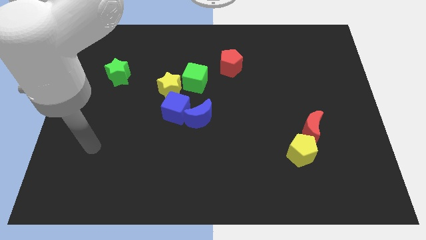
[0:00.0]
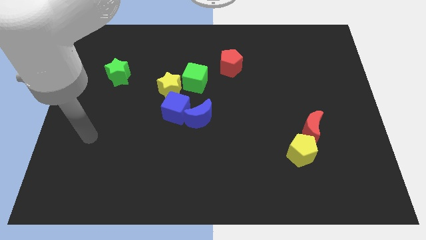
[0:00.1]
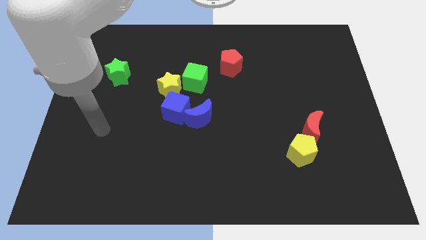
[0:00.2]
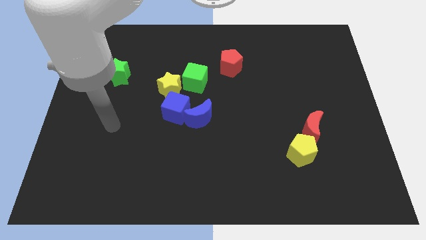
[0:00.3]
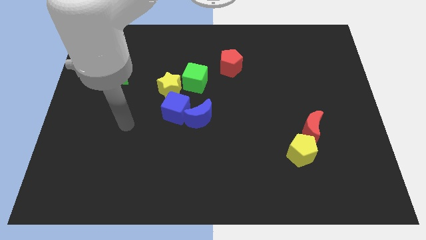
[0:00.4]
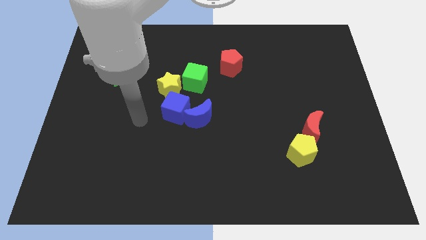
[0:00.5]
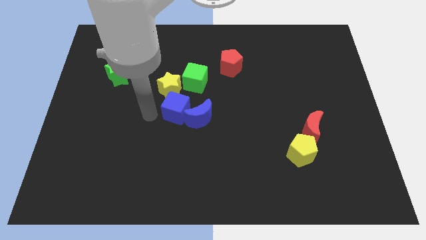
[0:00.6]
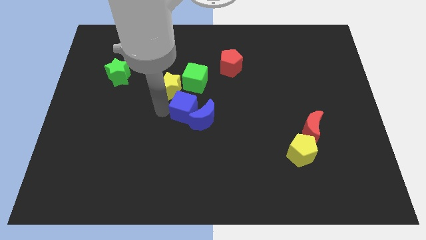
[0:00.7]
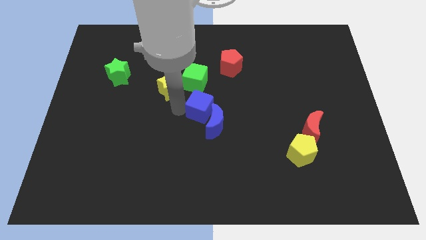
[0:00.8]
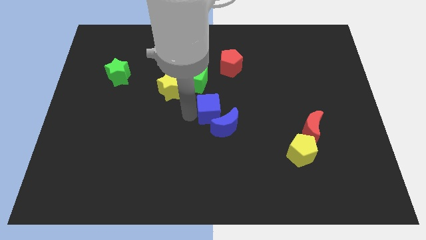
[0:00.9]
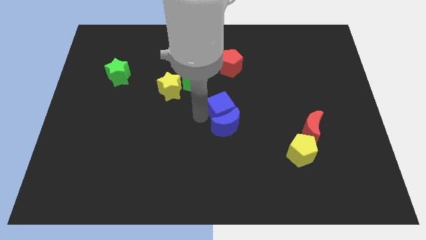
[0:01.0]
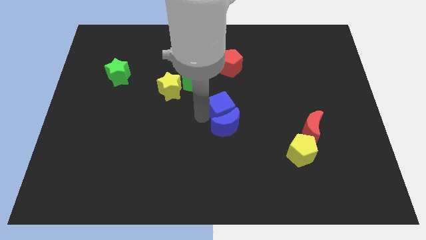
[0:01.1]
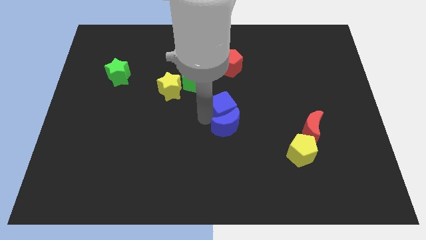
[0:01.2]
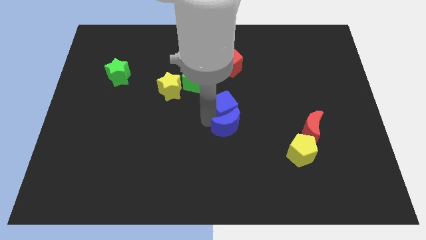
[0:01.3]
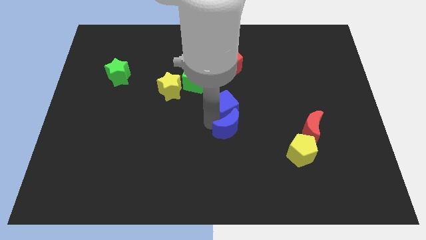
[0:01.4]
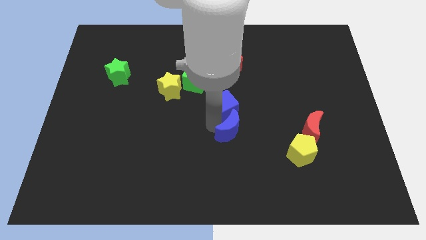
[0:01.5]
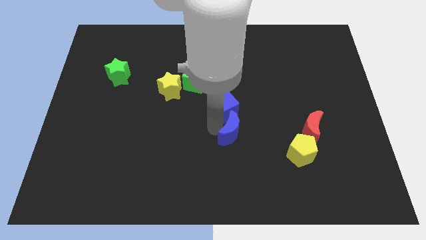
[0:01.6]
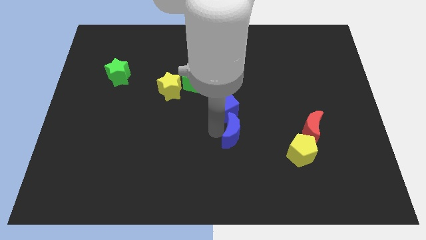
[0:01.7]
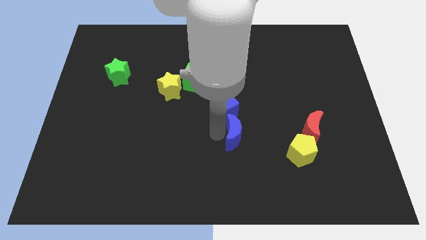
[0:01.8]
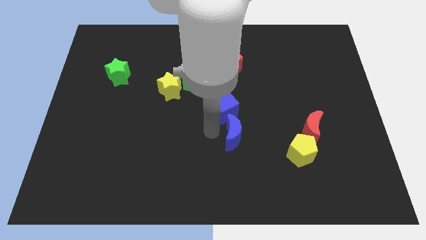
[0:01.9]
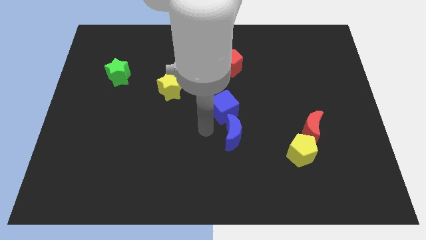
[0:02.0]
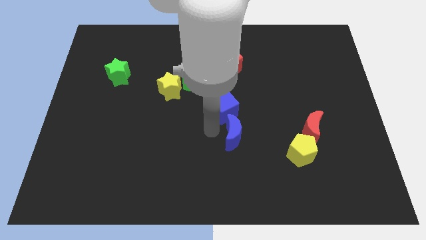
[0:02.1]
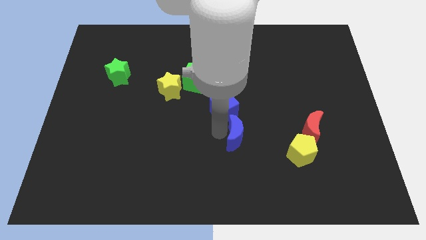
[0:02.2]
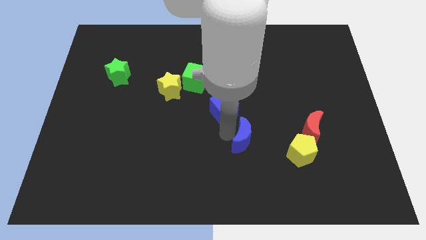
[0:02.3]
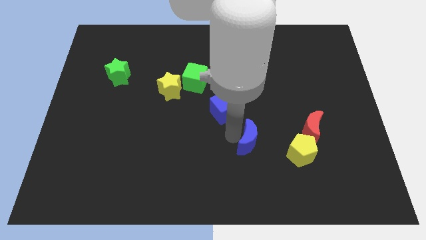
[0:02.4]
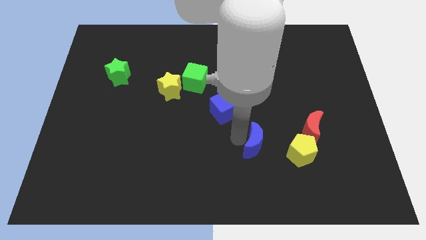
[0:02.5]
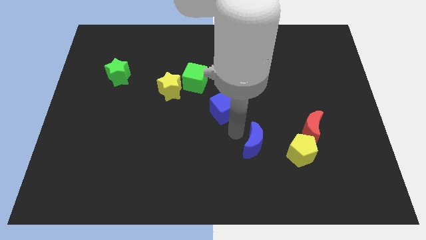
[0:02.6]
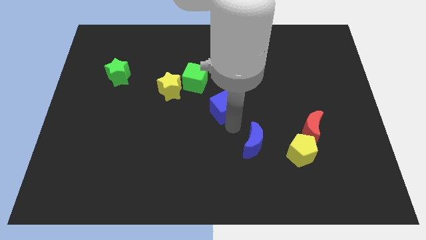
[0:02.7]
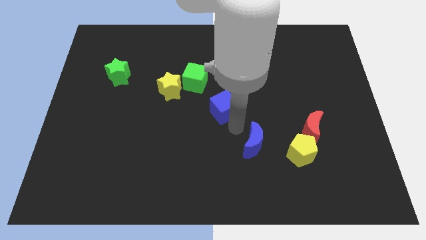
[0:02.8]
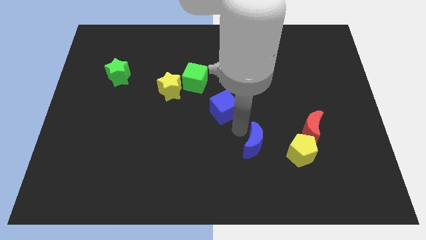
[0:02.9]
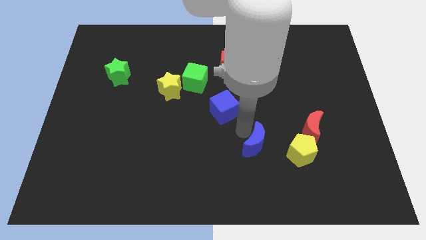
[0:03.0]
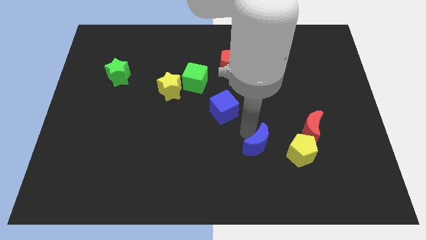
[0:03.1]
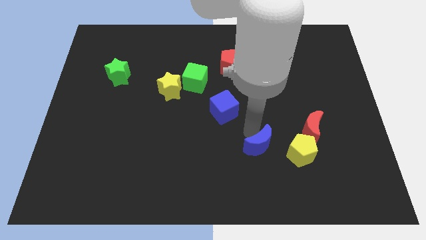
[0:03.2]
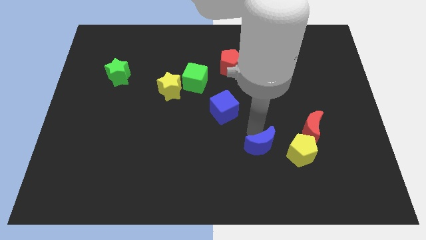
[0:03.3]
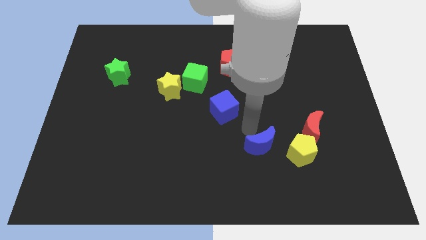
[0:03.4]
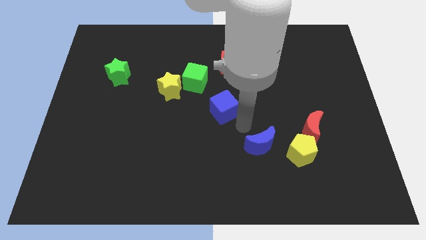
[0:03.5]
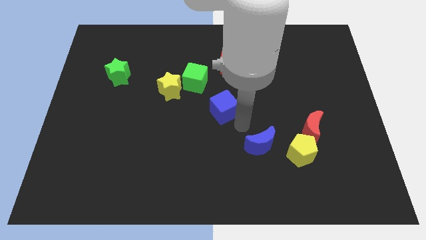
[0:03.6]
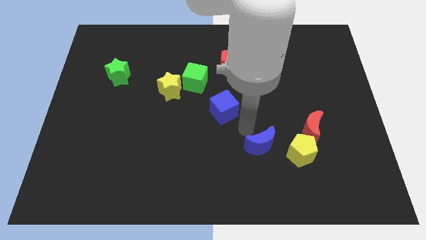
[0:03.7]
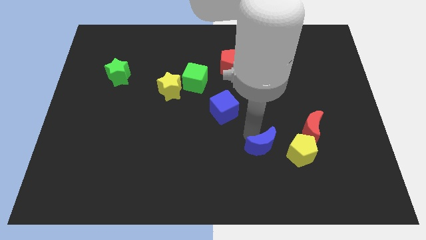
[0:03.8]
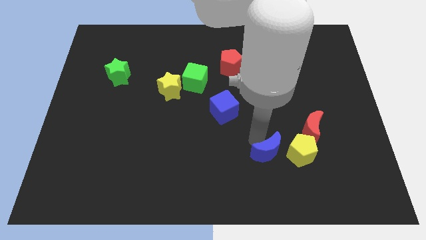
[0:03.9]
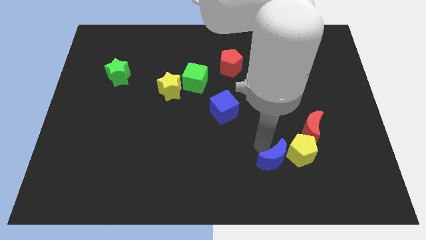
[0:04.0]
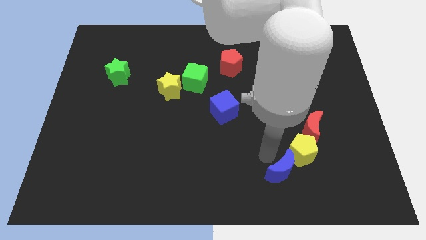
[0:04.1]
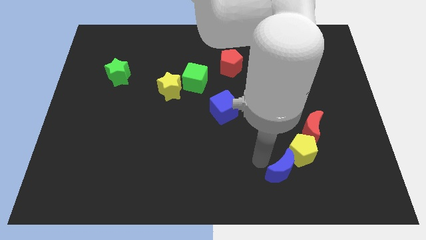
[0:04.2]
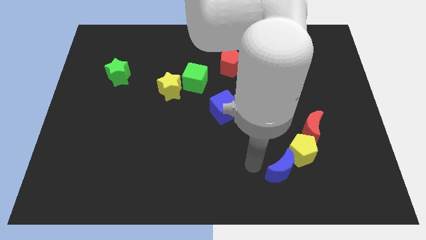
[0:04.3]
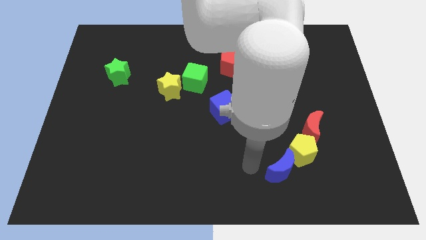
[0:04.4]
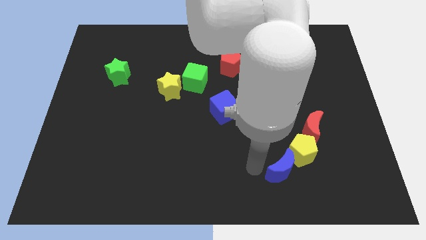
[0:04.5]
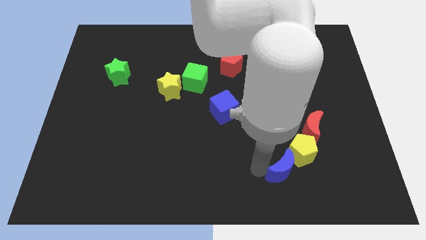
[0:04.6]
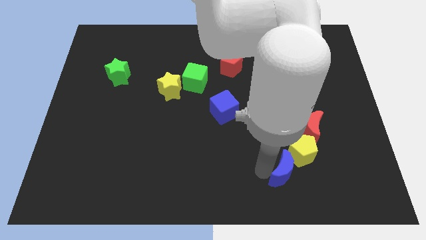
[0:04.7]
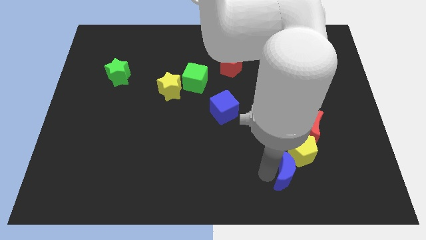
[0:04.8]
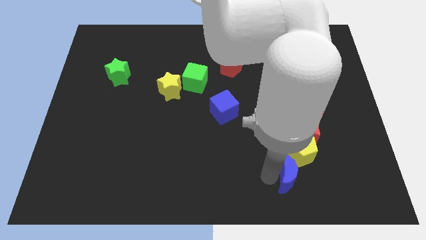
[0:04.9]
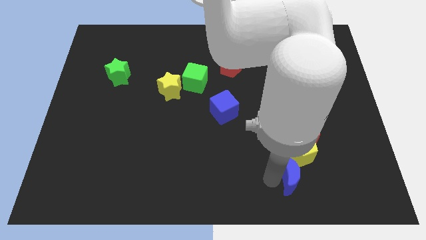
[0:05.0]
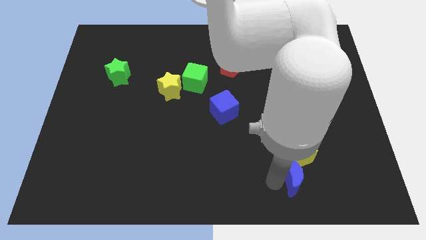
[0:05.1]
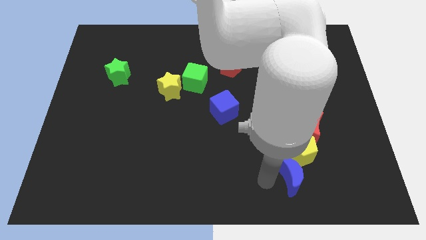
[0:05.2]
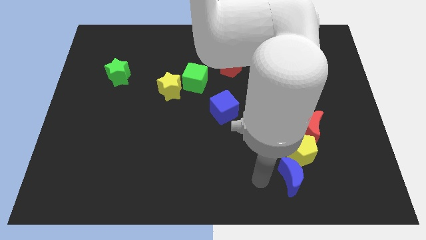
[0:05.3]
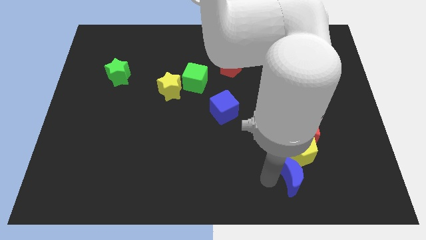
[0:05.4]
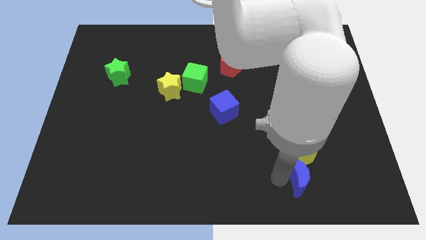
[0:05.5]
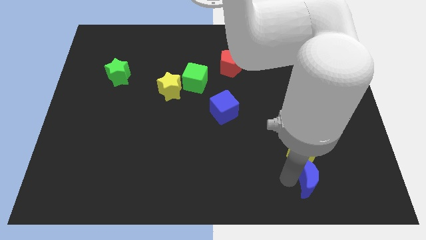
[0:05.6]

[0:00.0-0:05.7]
slide the blue moon diagonally down and to the right of the yellow pentagon

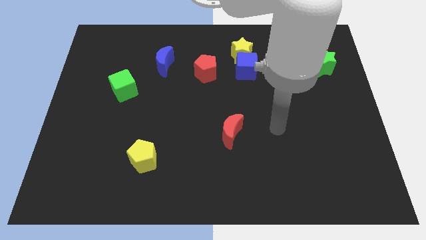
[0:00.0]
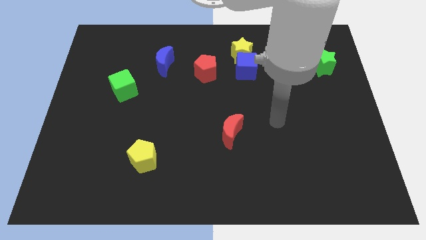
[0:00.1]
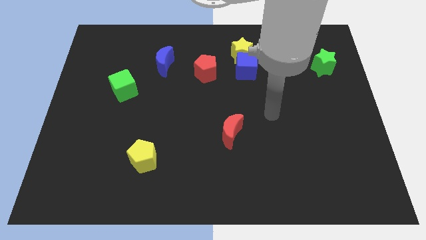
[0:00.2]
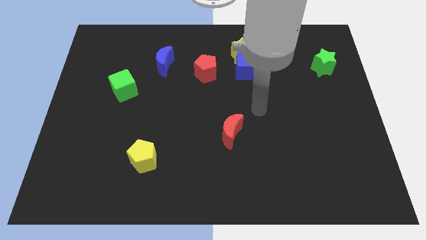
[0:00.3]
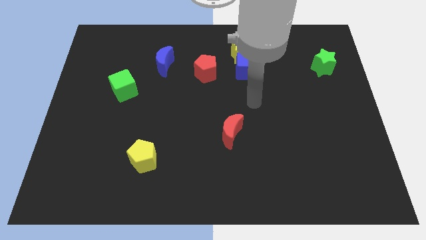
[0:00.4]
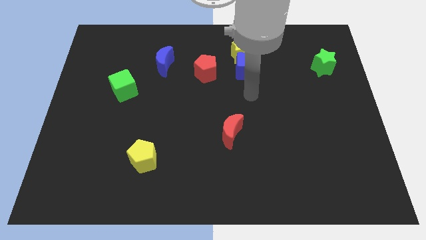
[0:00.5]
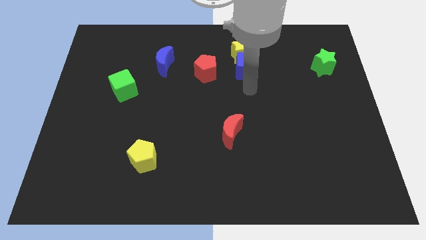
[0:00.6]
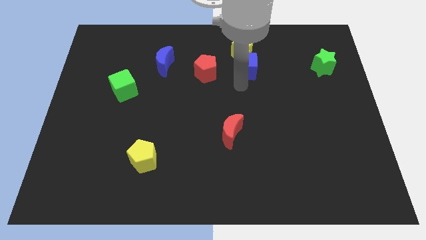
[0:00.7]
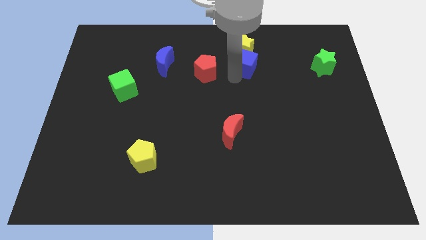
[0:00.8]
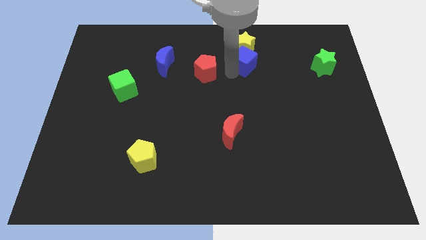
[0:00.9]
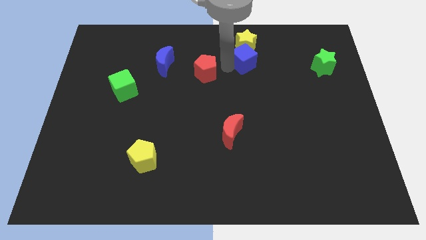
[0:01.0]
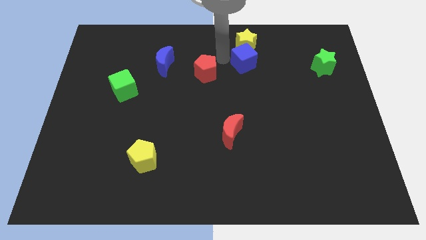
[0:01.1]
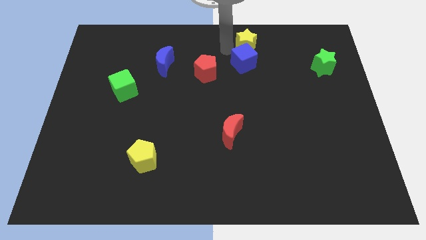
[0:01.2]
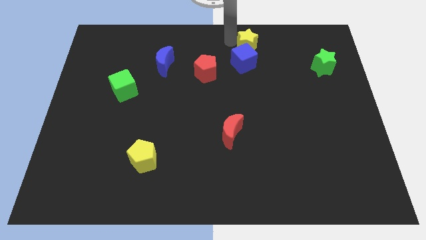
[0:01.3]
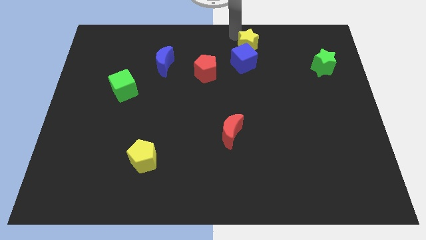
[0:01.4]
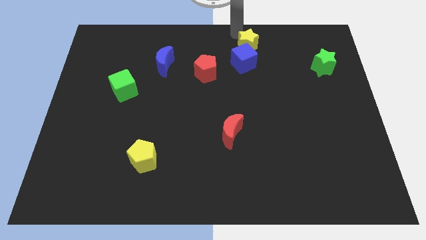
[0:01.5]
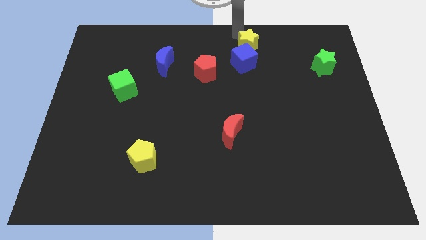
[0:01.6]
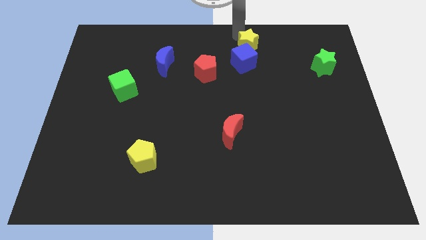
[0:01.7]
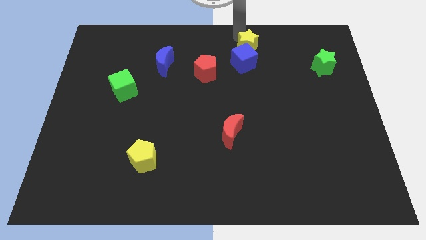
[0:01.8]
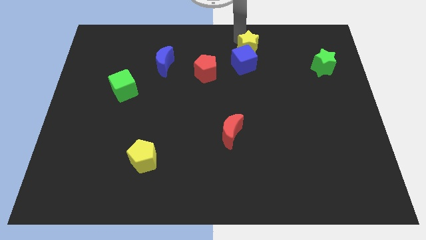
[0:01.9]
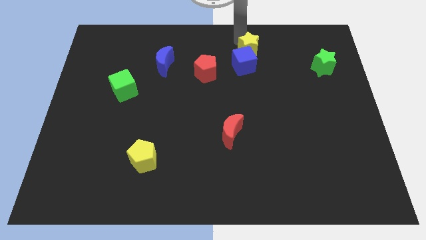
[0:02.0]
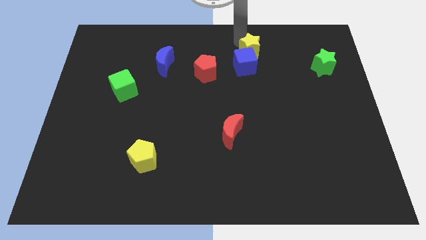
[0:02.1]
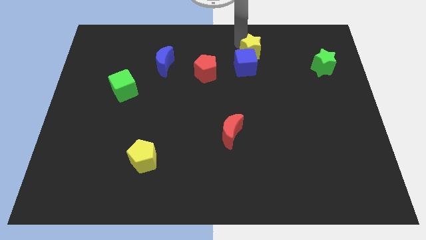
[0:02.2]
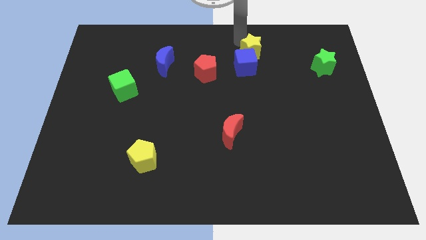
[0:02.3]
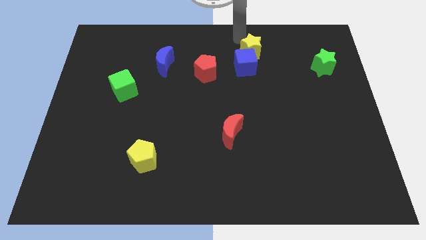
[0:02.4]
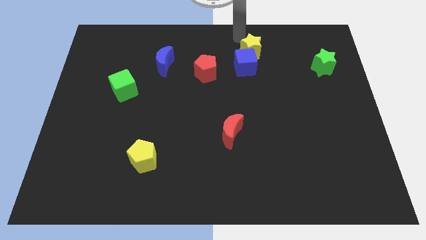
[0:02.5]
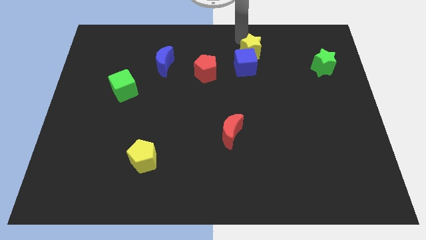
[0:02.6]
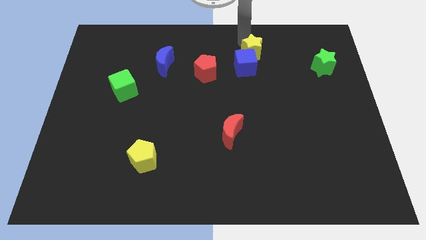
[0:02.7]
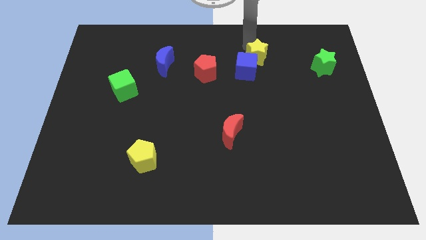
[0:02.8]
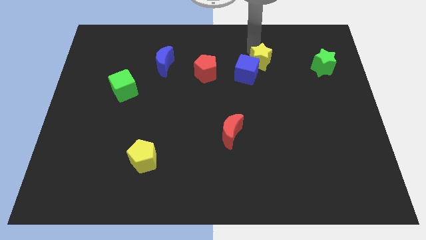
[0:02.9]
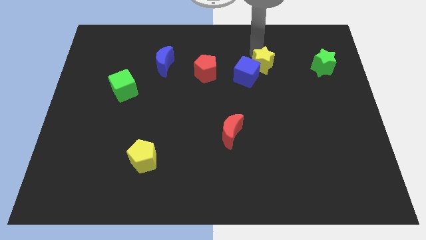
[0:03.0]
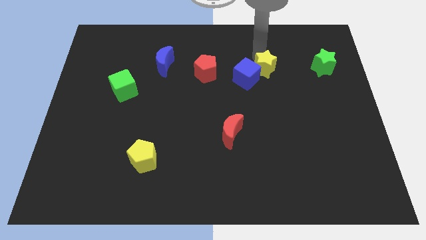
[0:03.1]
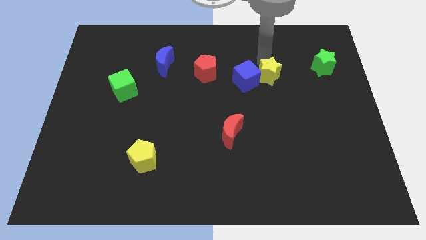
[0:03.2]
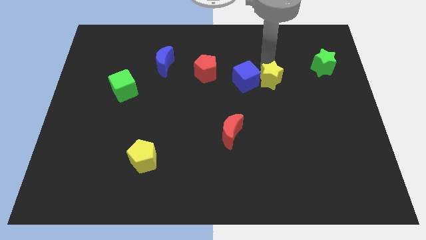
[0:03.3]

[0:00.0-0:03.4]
push the yellow star diagonally down and to the right of the blue cube
